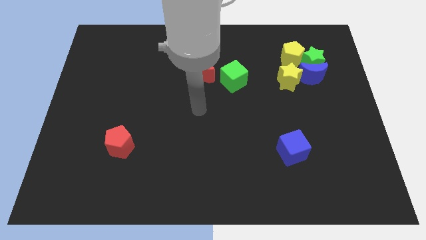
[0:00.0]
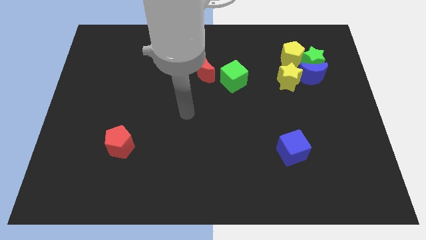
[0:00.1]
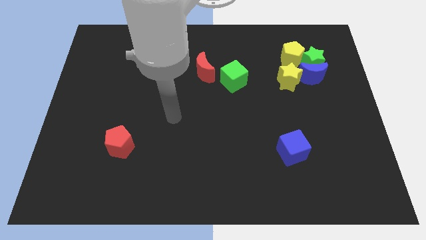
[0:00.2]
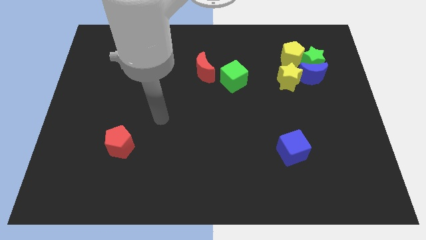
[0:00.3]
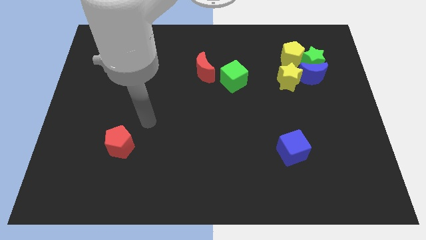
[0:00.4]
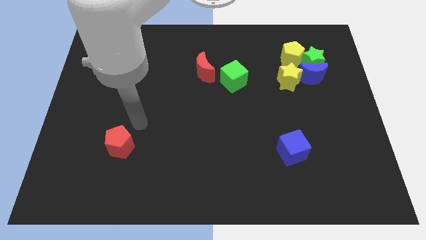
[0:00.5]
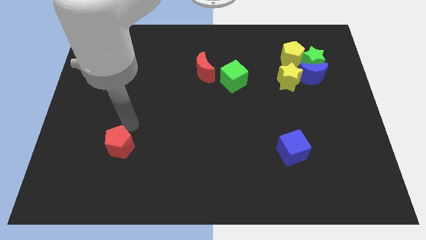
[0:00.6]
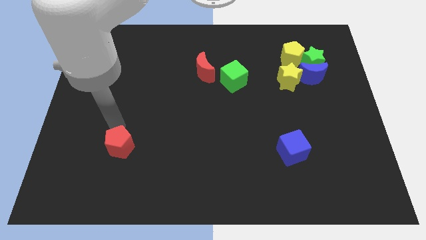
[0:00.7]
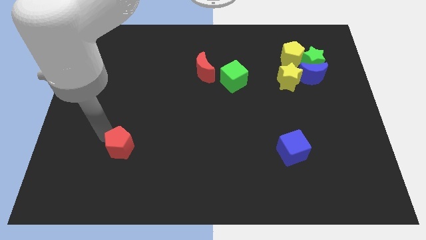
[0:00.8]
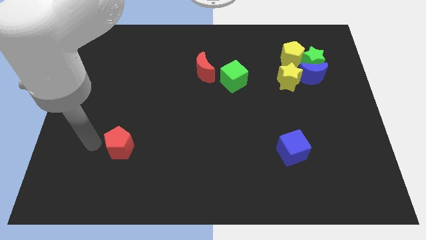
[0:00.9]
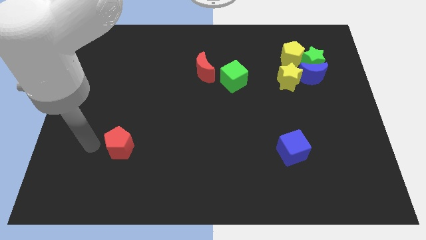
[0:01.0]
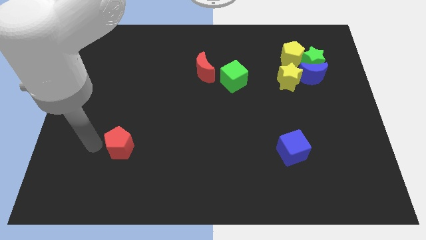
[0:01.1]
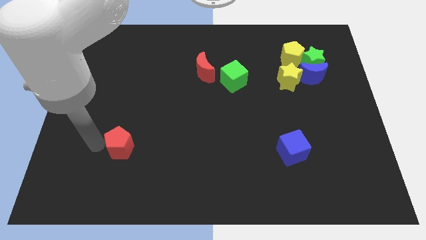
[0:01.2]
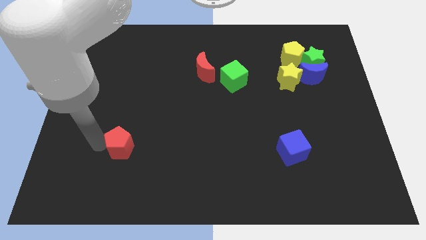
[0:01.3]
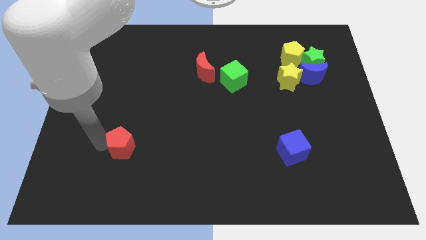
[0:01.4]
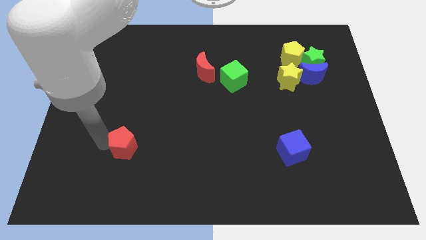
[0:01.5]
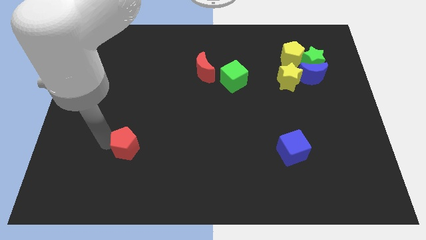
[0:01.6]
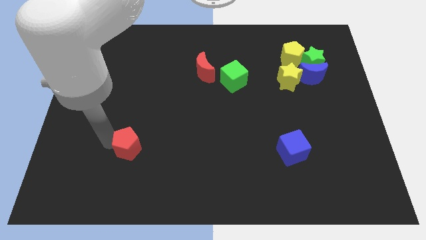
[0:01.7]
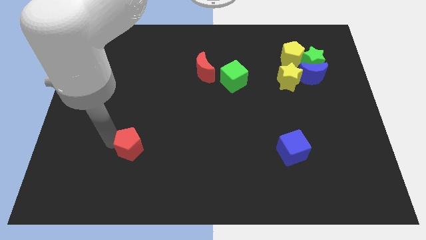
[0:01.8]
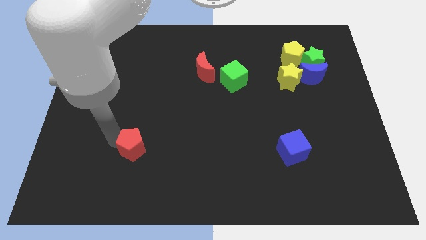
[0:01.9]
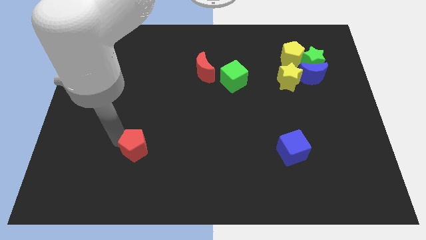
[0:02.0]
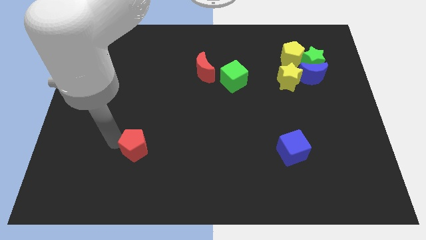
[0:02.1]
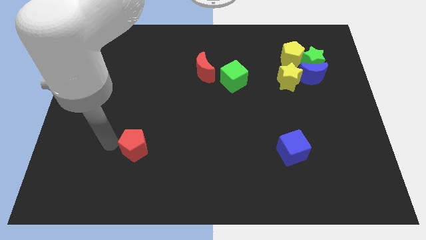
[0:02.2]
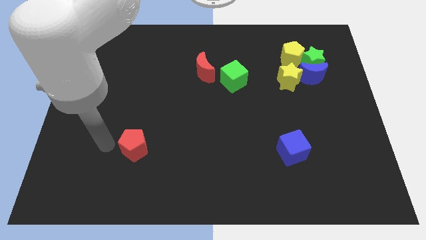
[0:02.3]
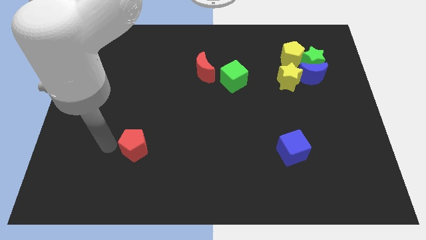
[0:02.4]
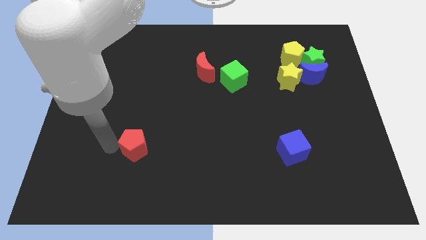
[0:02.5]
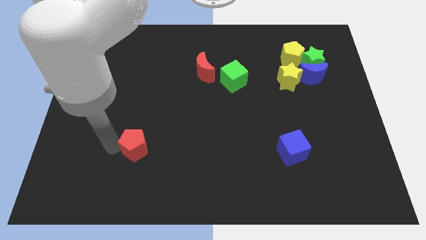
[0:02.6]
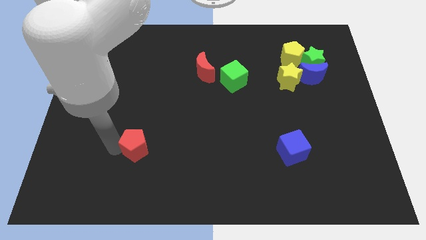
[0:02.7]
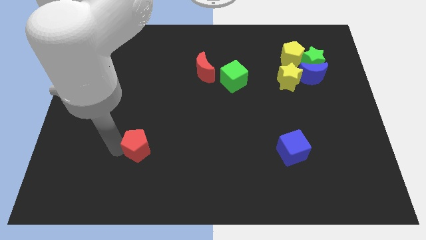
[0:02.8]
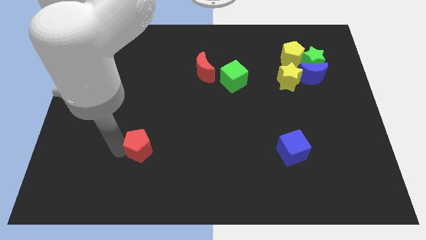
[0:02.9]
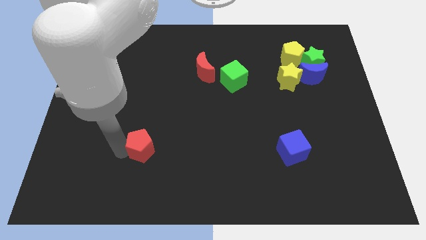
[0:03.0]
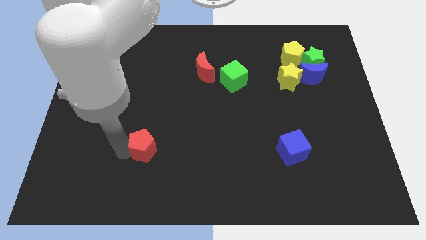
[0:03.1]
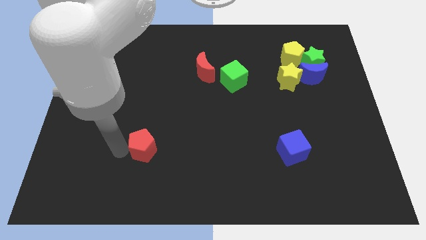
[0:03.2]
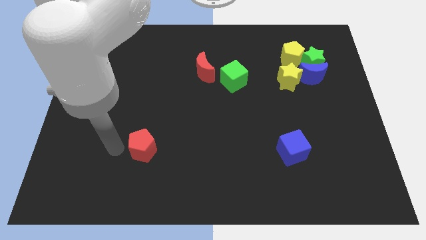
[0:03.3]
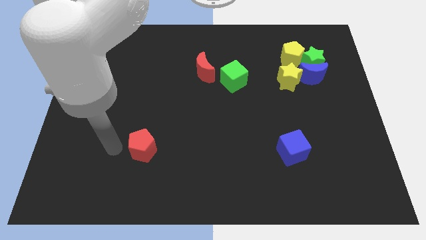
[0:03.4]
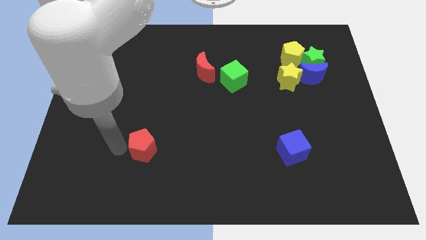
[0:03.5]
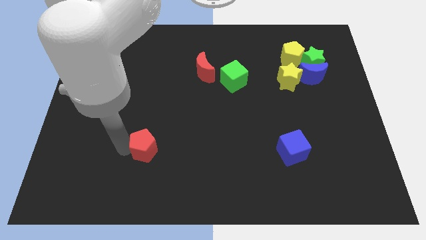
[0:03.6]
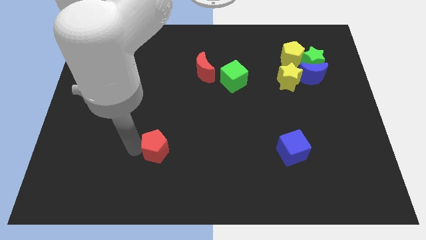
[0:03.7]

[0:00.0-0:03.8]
push the red pentagon to the right somewhat

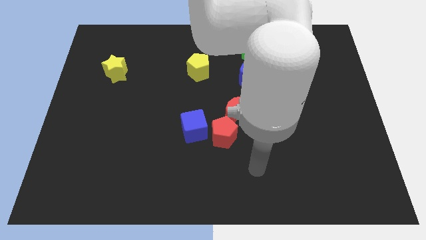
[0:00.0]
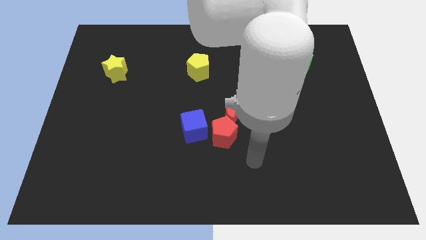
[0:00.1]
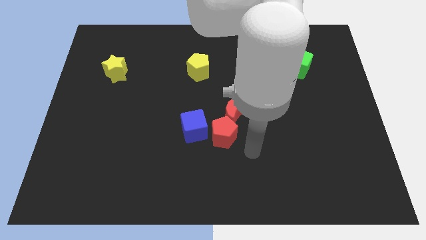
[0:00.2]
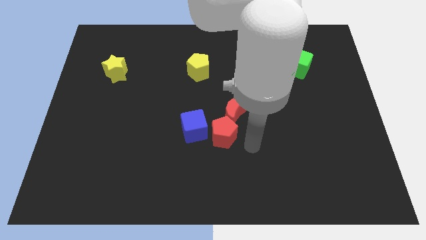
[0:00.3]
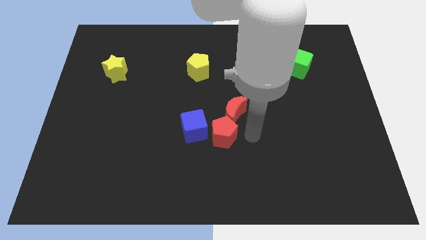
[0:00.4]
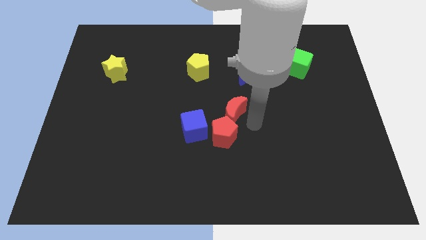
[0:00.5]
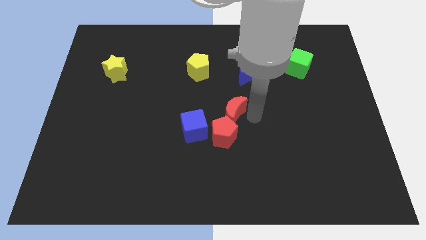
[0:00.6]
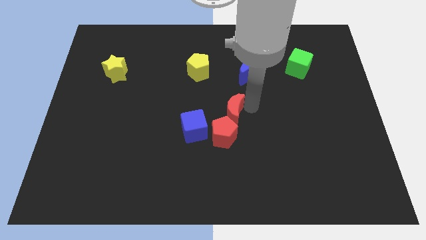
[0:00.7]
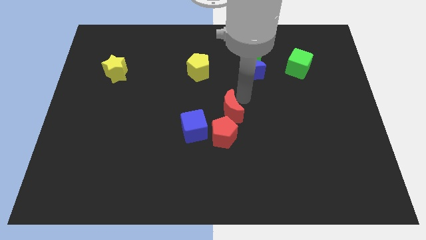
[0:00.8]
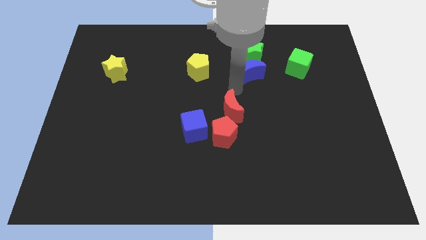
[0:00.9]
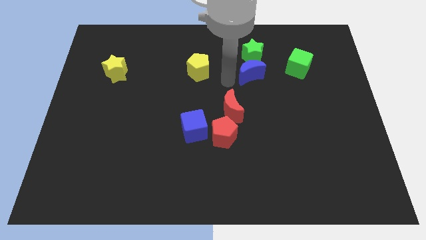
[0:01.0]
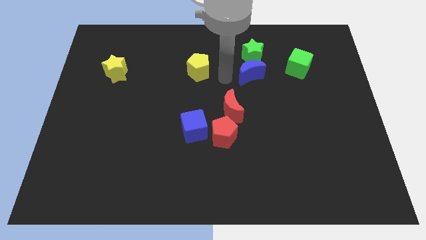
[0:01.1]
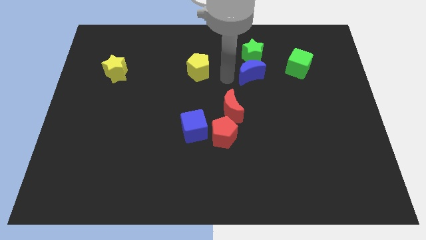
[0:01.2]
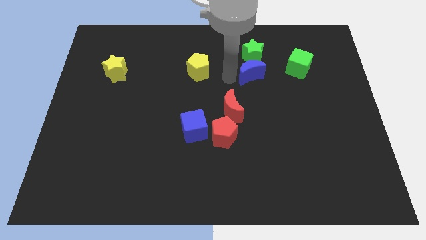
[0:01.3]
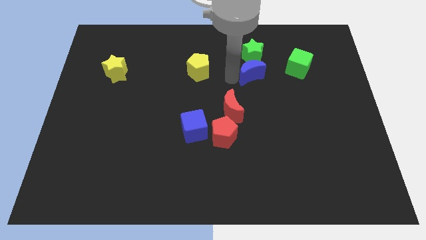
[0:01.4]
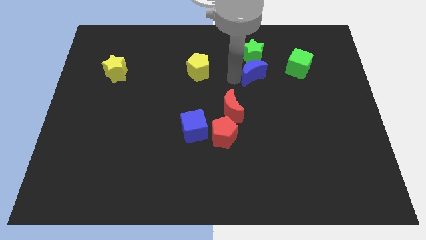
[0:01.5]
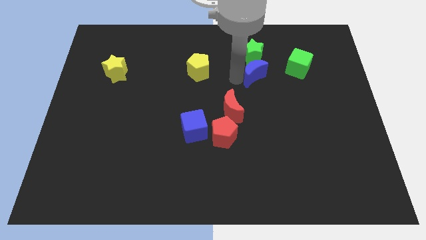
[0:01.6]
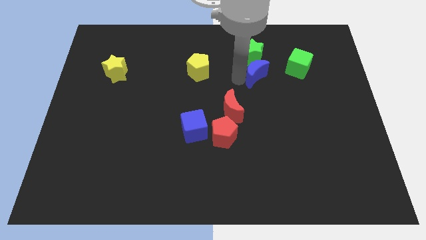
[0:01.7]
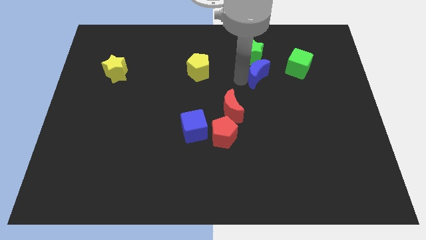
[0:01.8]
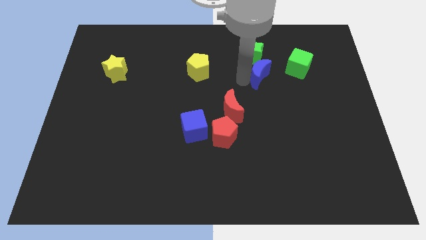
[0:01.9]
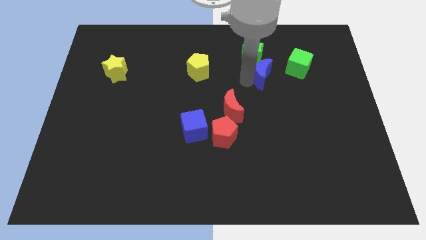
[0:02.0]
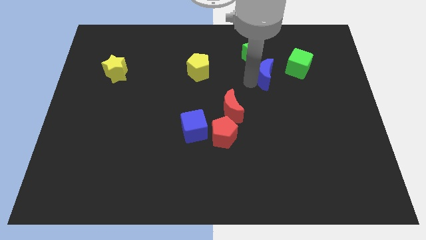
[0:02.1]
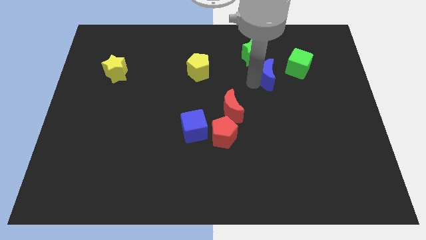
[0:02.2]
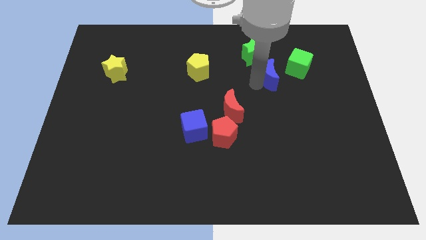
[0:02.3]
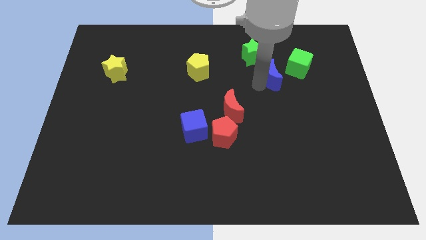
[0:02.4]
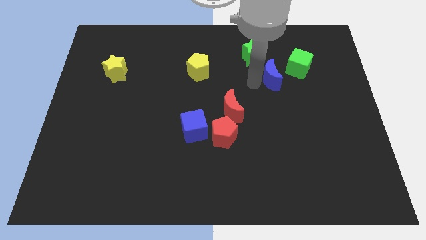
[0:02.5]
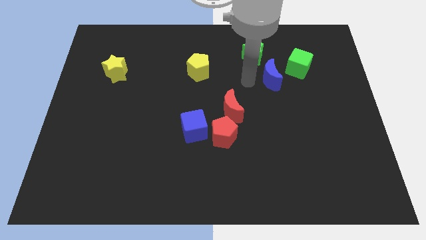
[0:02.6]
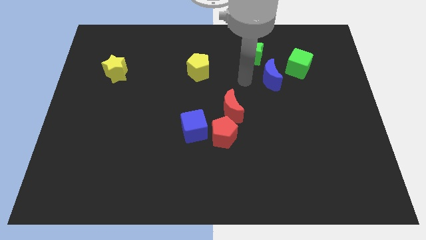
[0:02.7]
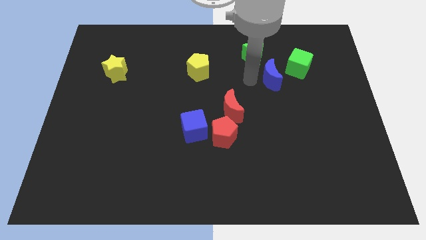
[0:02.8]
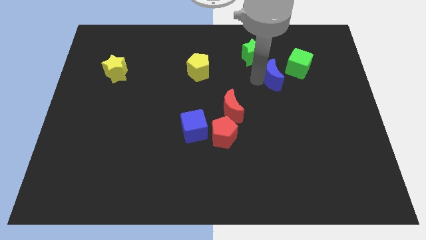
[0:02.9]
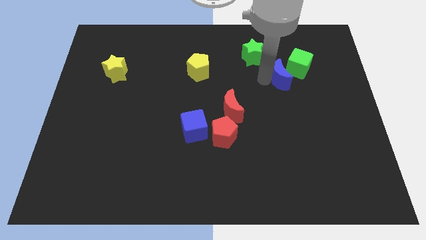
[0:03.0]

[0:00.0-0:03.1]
slightly move the blue moon right

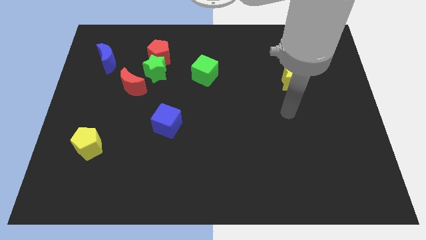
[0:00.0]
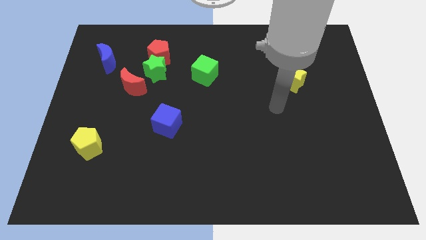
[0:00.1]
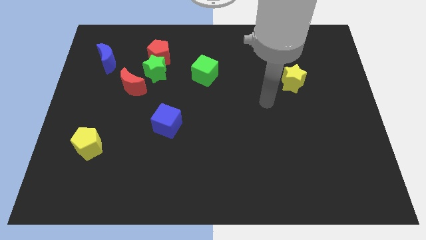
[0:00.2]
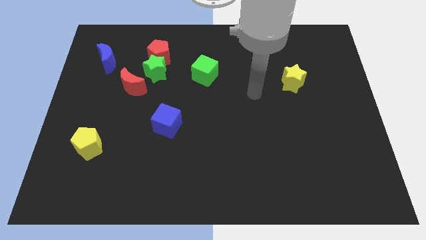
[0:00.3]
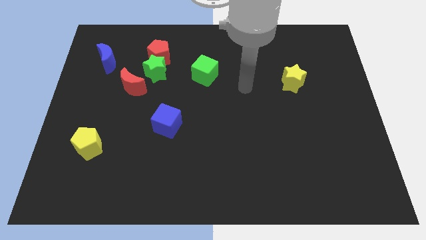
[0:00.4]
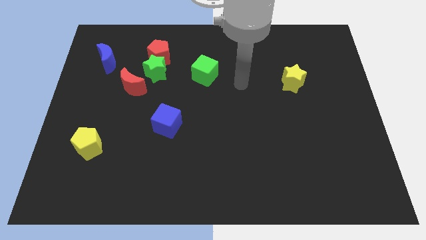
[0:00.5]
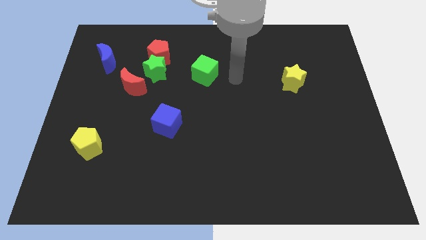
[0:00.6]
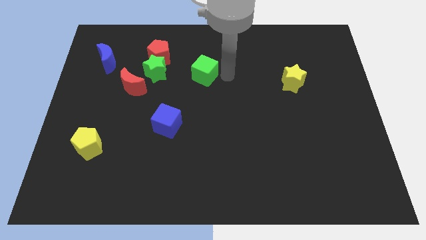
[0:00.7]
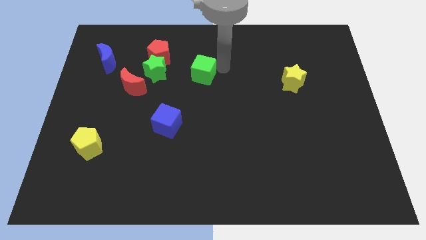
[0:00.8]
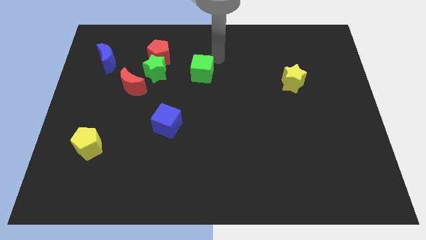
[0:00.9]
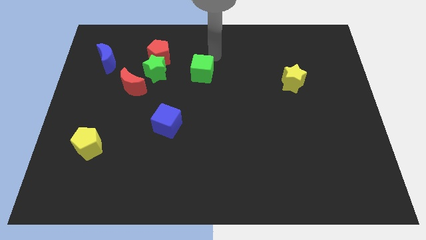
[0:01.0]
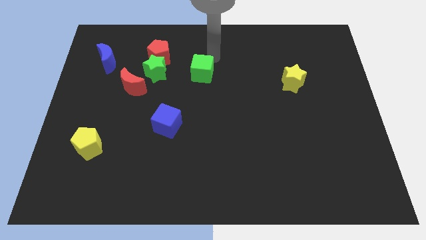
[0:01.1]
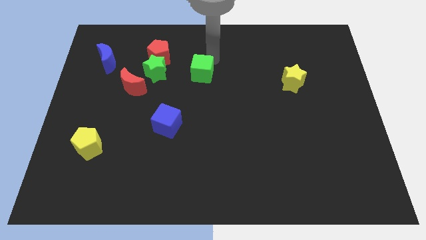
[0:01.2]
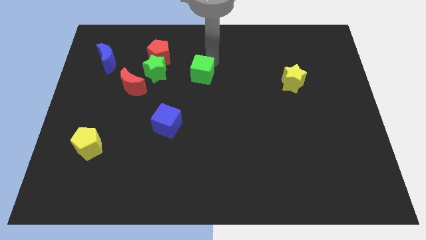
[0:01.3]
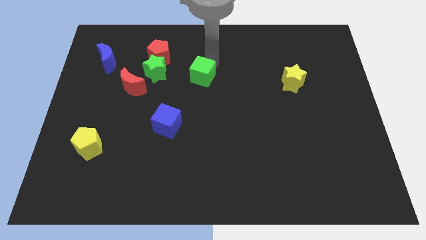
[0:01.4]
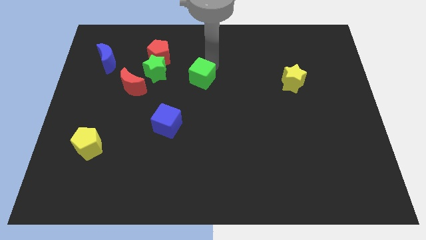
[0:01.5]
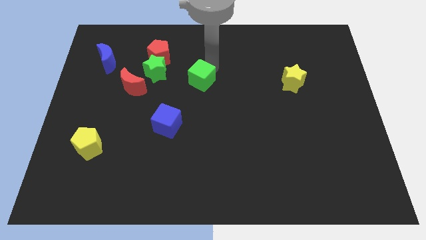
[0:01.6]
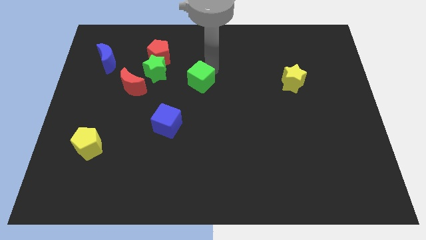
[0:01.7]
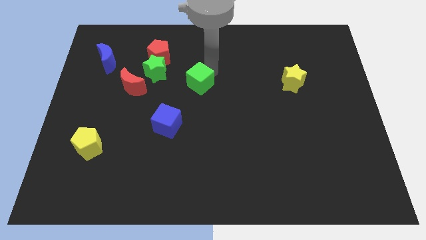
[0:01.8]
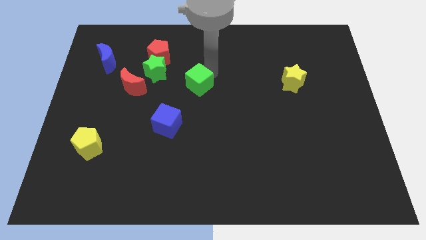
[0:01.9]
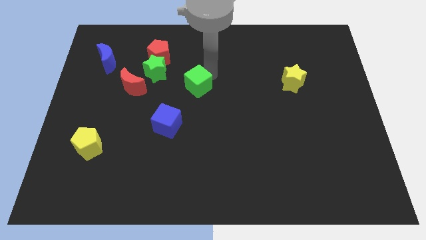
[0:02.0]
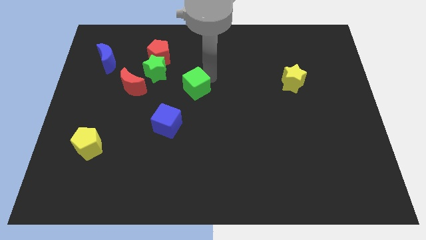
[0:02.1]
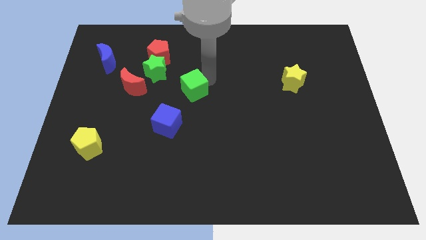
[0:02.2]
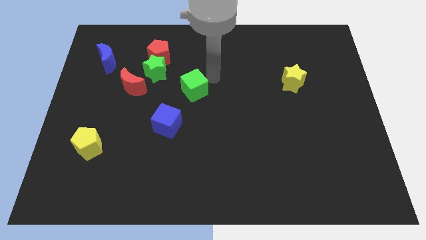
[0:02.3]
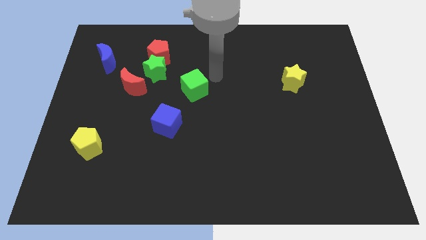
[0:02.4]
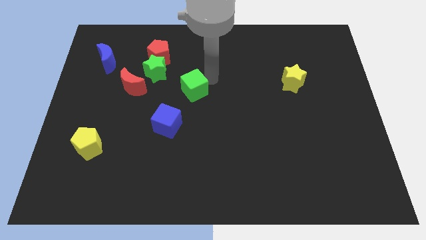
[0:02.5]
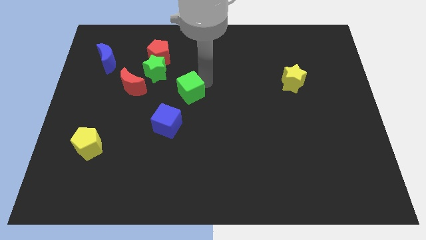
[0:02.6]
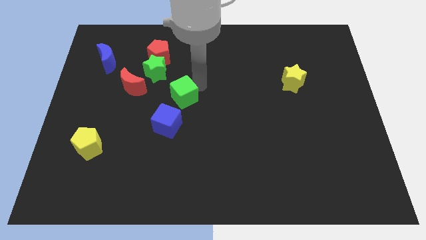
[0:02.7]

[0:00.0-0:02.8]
push the green cube slightly downwards and to the left diagonally
